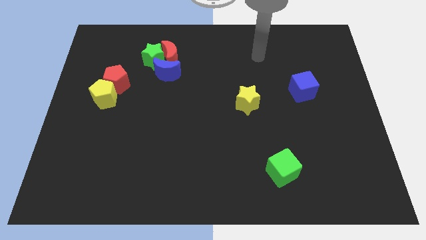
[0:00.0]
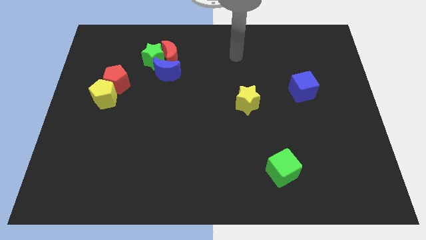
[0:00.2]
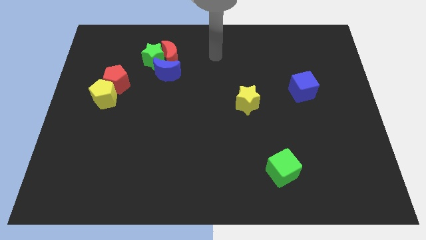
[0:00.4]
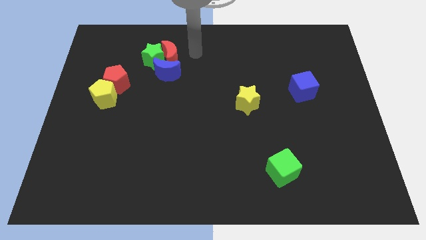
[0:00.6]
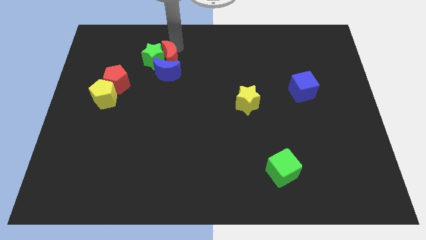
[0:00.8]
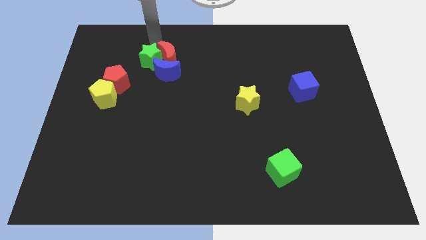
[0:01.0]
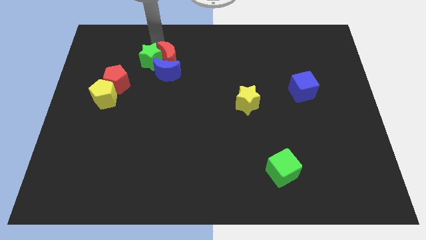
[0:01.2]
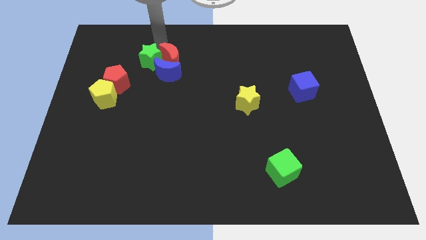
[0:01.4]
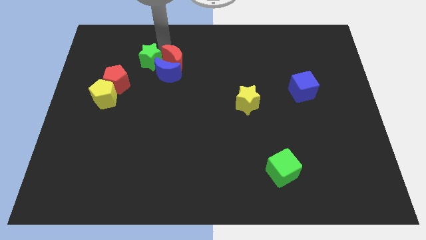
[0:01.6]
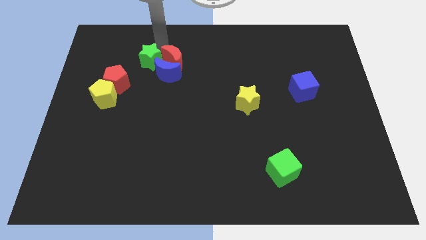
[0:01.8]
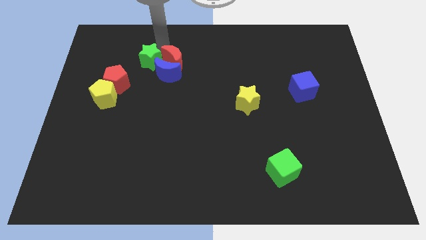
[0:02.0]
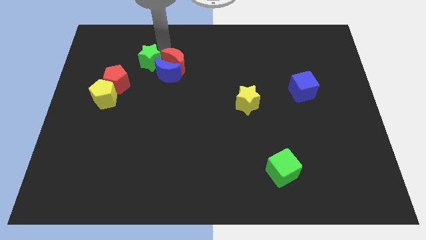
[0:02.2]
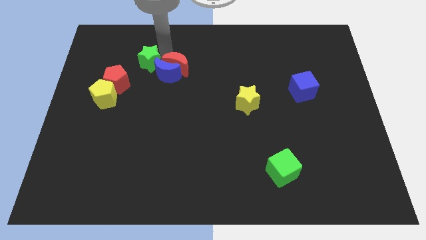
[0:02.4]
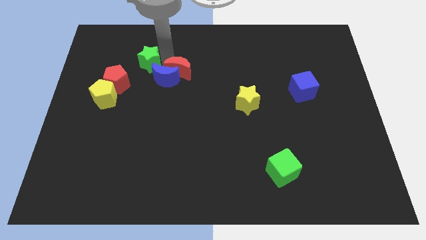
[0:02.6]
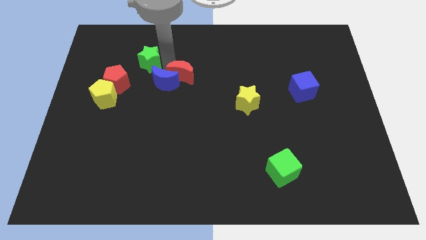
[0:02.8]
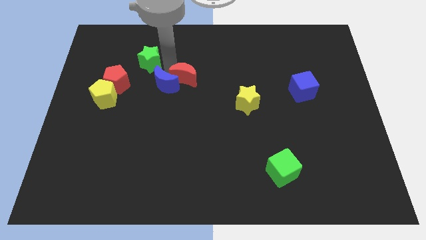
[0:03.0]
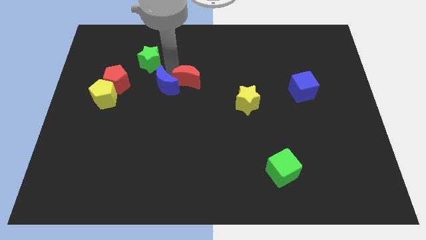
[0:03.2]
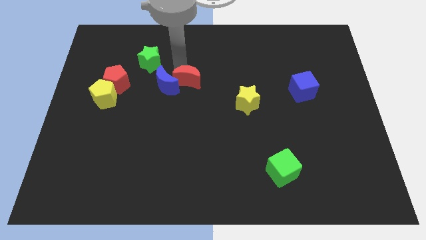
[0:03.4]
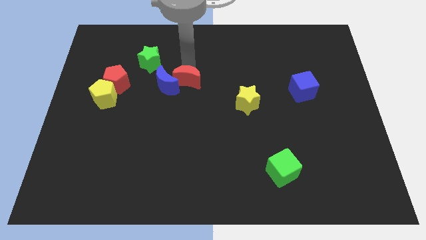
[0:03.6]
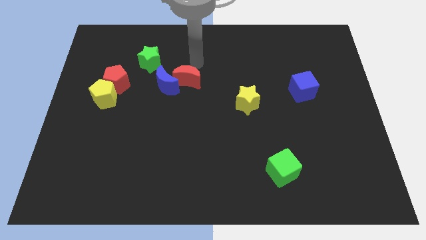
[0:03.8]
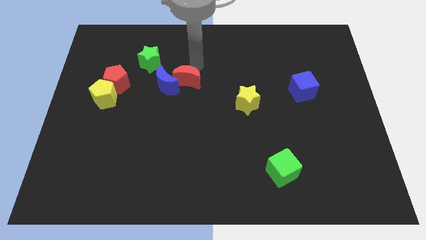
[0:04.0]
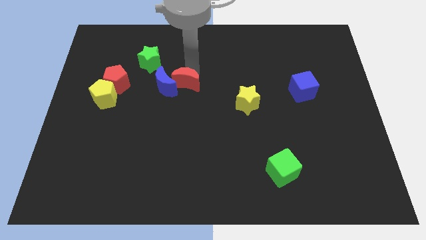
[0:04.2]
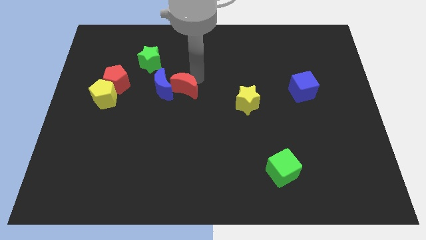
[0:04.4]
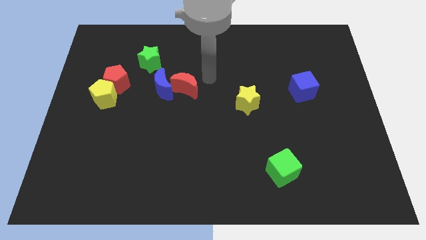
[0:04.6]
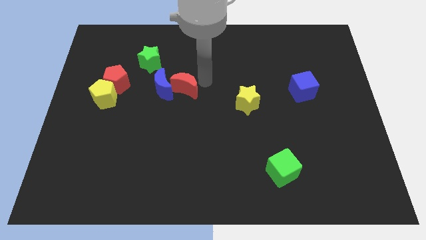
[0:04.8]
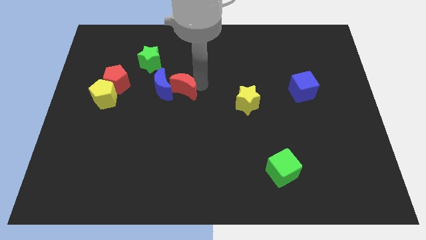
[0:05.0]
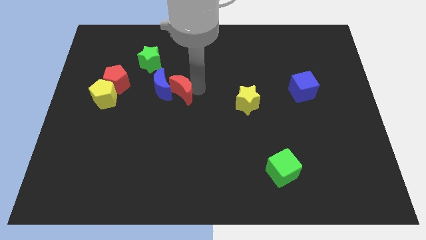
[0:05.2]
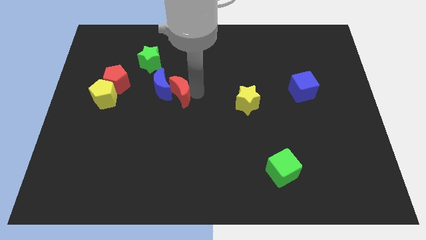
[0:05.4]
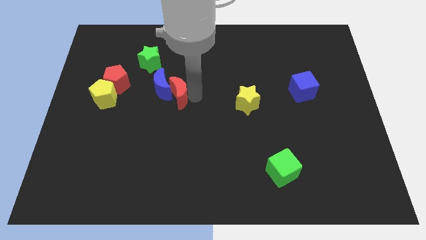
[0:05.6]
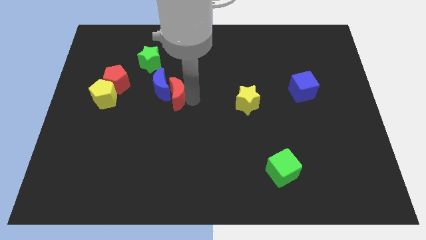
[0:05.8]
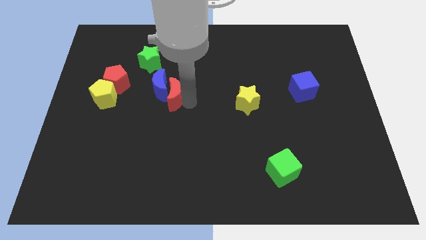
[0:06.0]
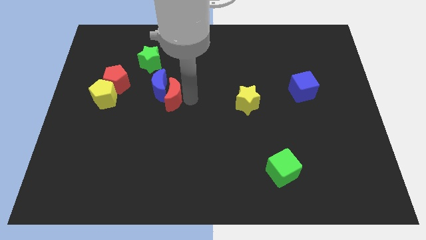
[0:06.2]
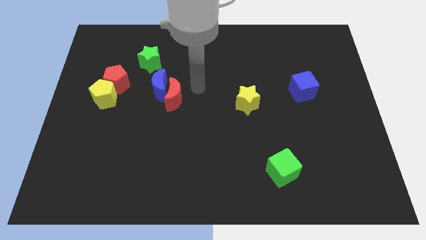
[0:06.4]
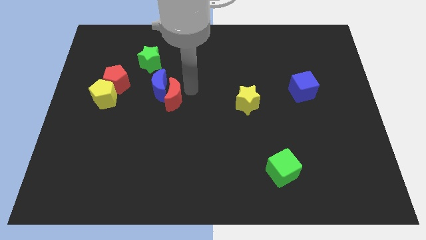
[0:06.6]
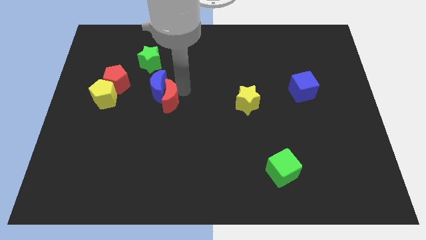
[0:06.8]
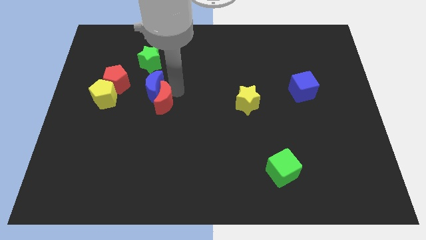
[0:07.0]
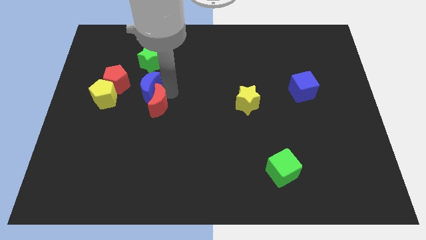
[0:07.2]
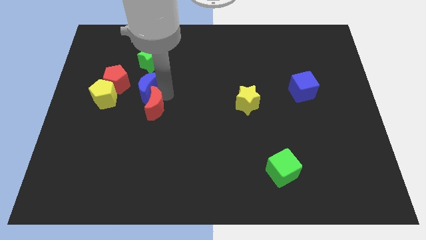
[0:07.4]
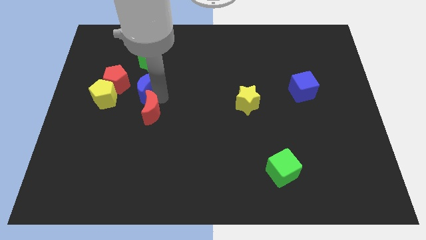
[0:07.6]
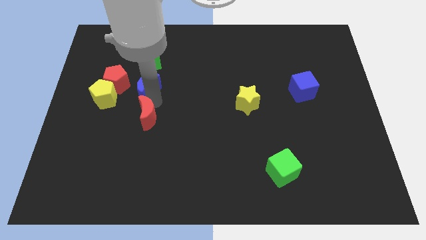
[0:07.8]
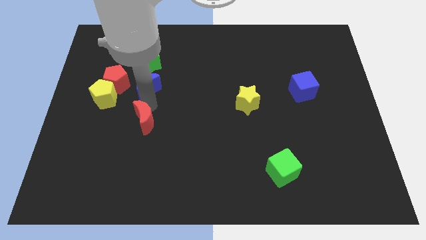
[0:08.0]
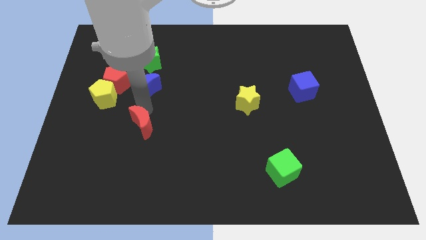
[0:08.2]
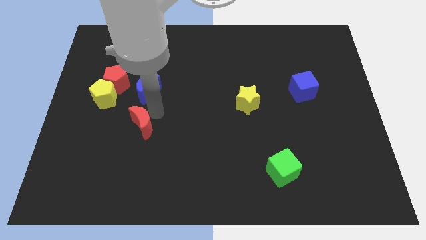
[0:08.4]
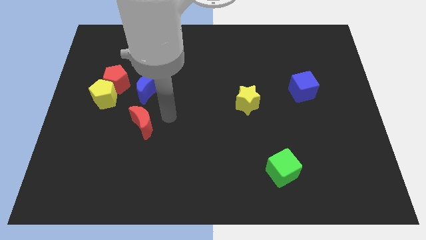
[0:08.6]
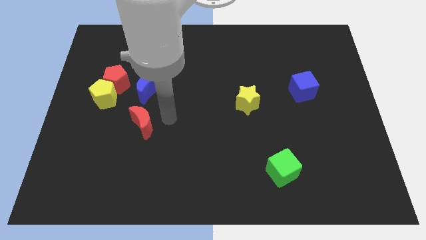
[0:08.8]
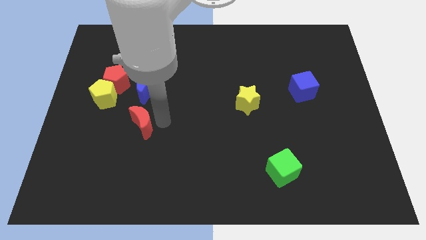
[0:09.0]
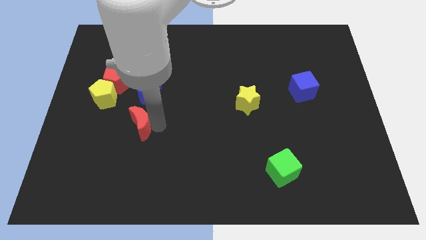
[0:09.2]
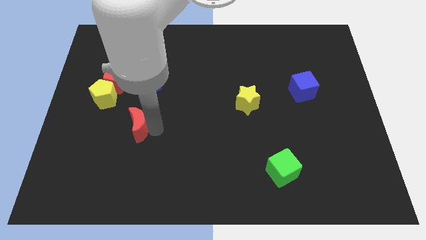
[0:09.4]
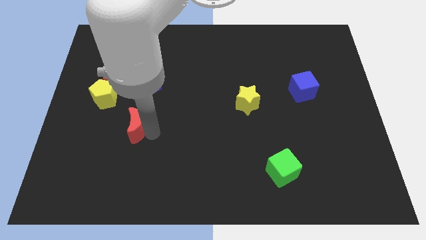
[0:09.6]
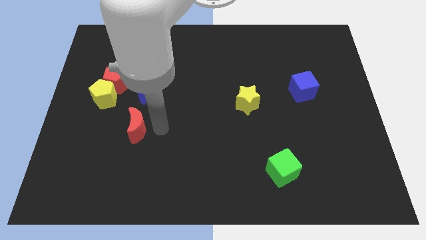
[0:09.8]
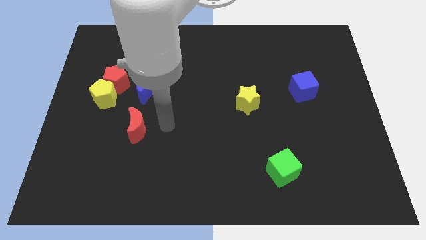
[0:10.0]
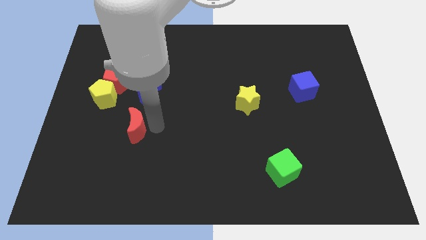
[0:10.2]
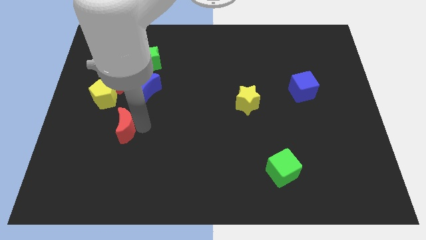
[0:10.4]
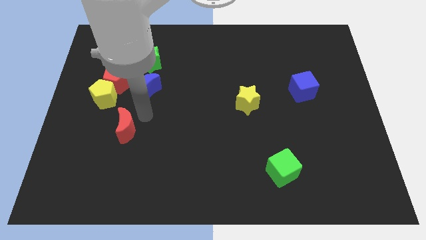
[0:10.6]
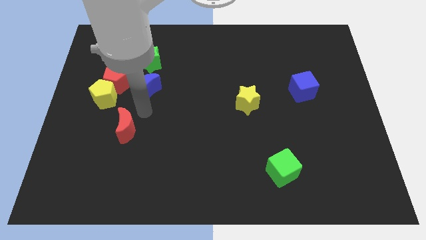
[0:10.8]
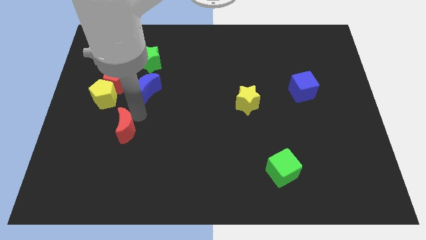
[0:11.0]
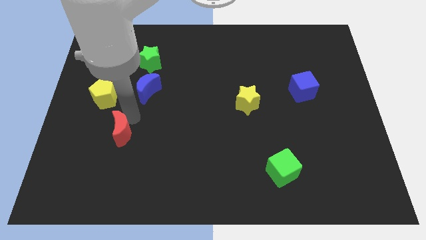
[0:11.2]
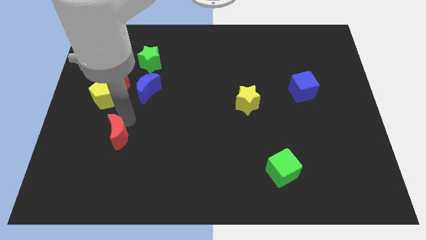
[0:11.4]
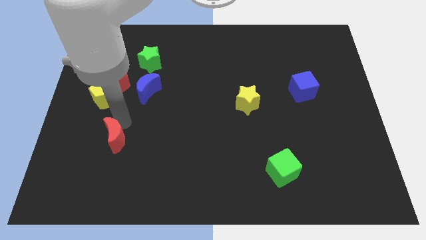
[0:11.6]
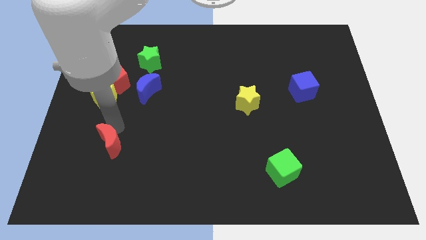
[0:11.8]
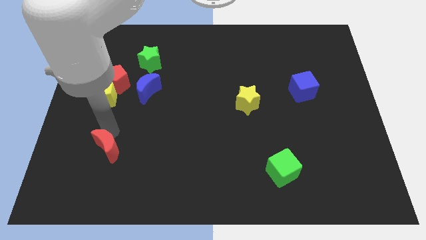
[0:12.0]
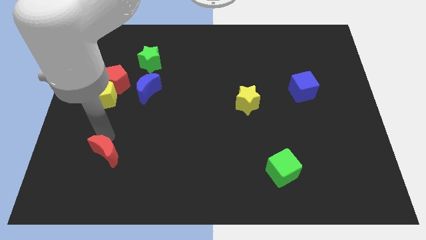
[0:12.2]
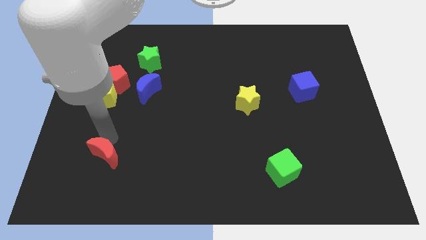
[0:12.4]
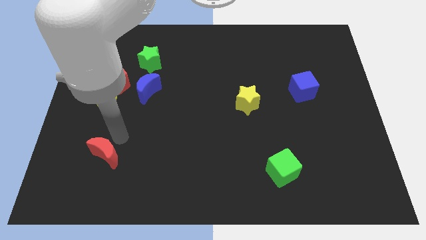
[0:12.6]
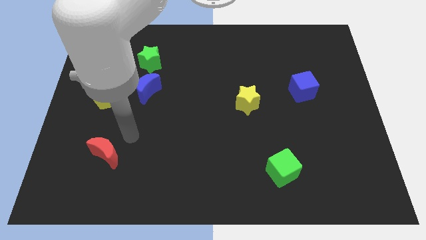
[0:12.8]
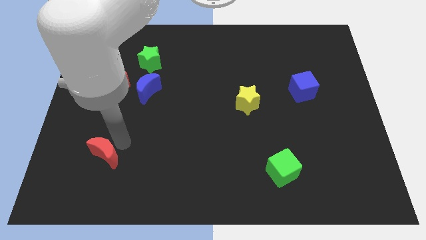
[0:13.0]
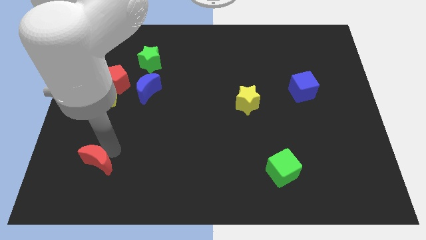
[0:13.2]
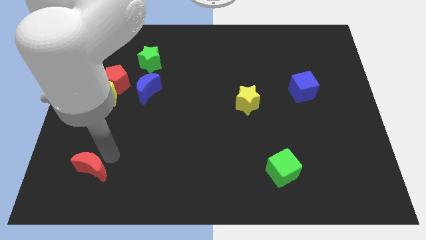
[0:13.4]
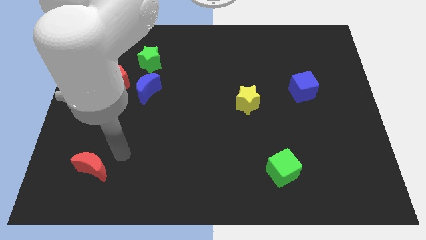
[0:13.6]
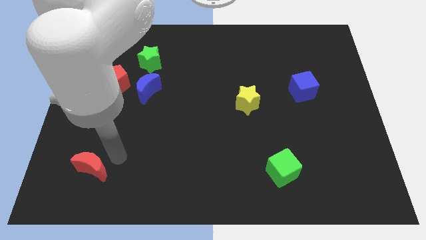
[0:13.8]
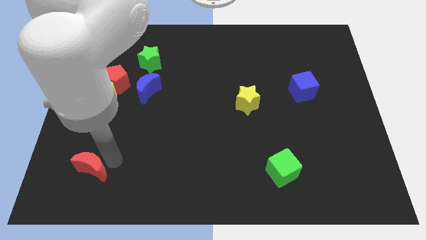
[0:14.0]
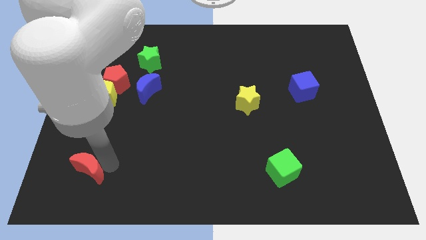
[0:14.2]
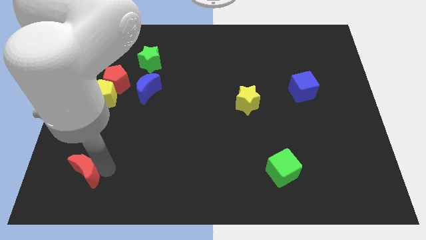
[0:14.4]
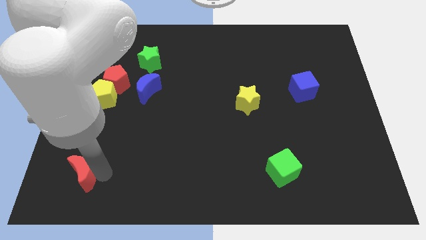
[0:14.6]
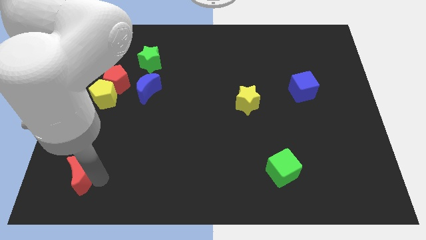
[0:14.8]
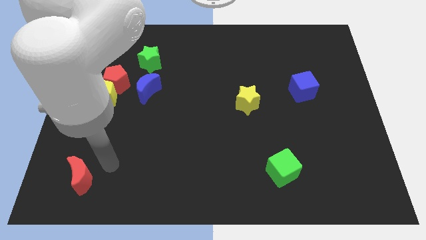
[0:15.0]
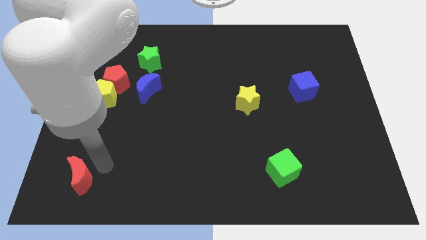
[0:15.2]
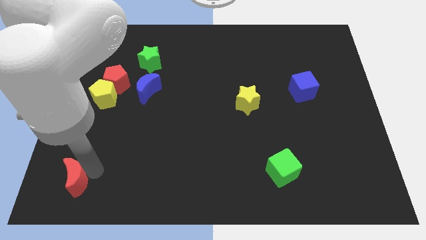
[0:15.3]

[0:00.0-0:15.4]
put the red moon to the bottom left of the board

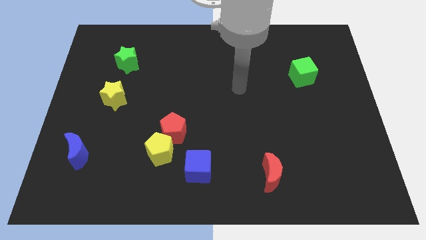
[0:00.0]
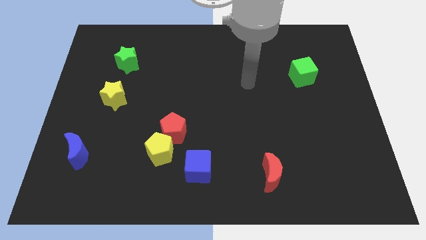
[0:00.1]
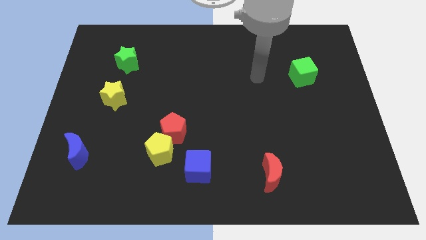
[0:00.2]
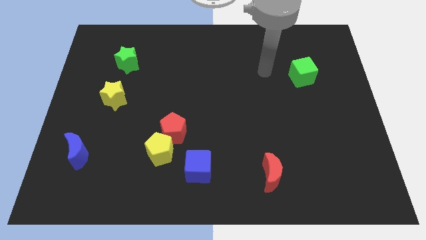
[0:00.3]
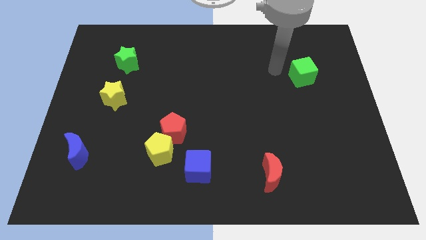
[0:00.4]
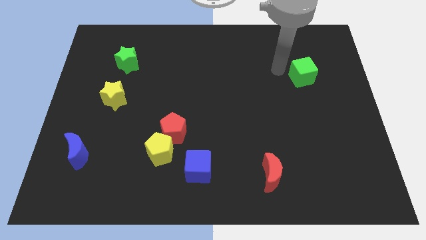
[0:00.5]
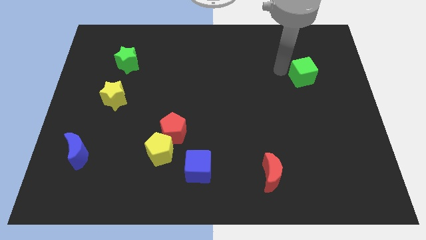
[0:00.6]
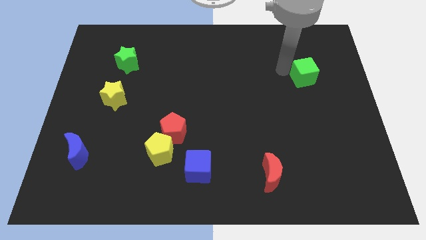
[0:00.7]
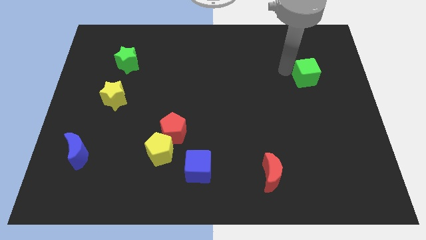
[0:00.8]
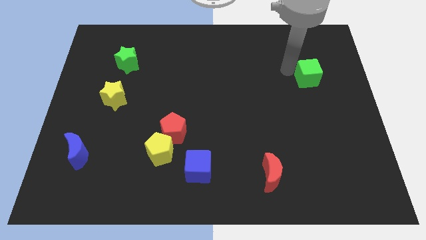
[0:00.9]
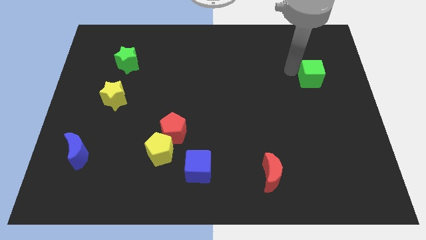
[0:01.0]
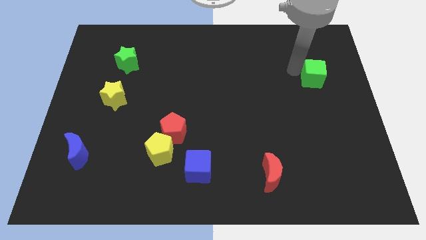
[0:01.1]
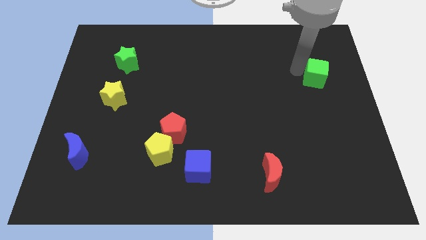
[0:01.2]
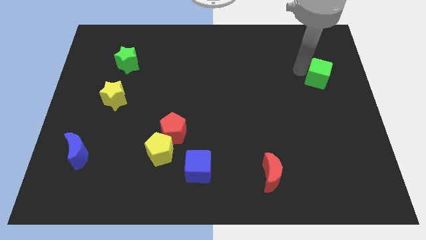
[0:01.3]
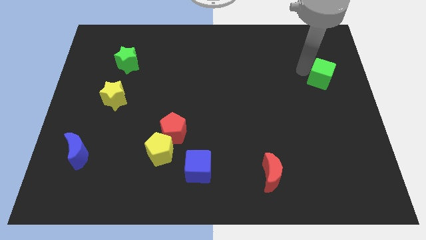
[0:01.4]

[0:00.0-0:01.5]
slide the green cube to the right side
